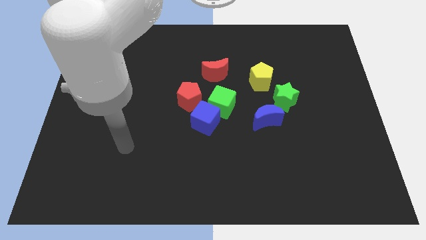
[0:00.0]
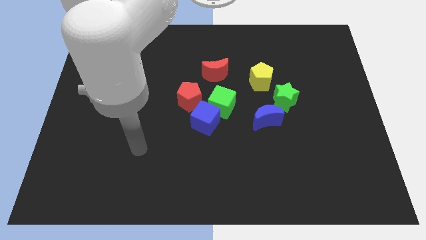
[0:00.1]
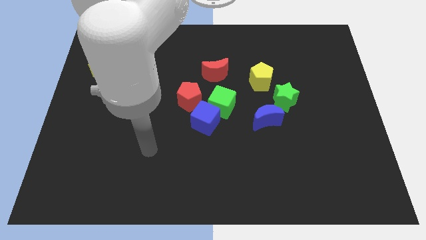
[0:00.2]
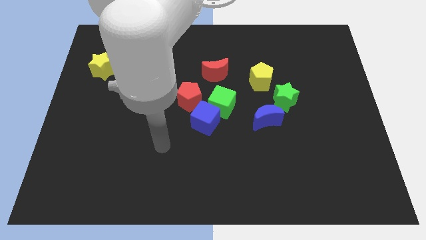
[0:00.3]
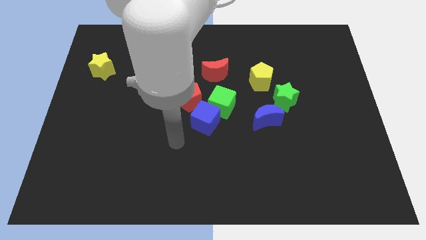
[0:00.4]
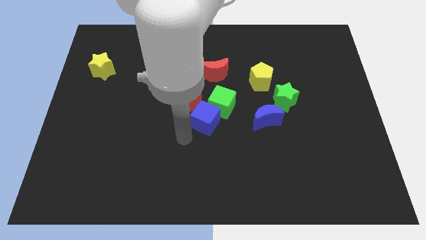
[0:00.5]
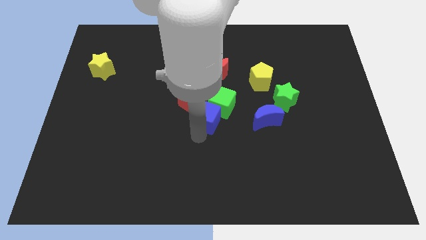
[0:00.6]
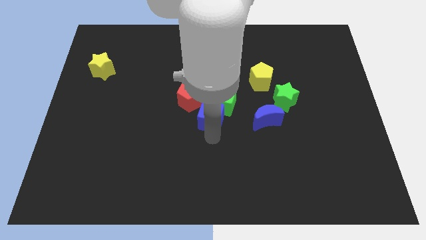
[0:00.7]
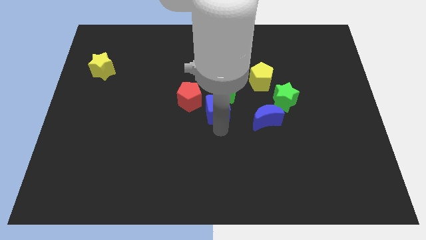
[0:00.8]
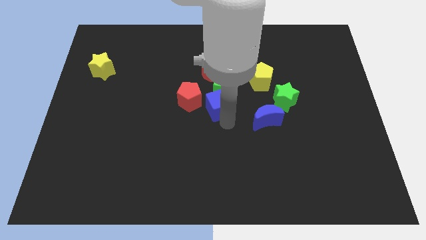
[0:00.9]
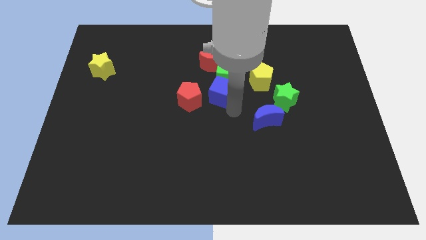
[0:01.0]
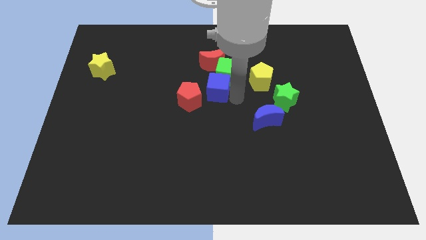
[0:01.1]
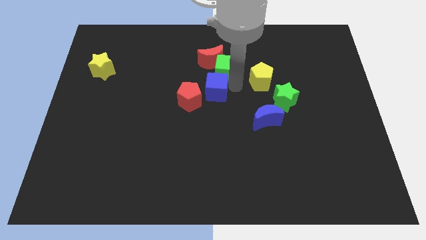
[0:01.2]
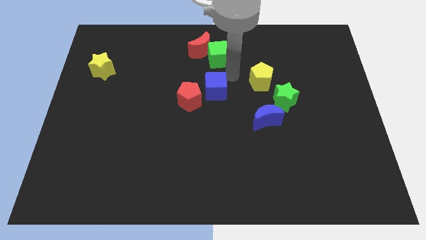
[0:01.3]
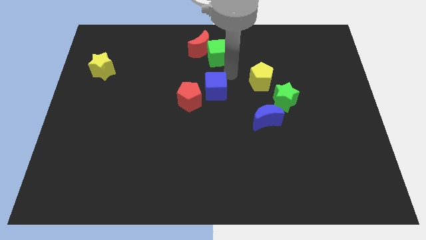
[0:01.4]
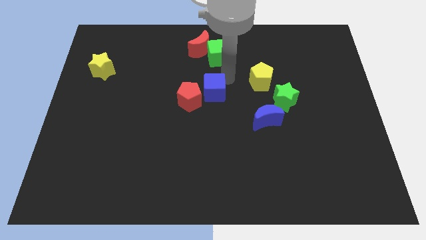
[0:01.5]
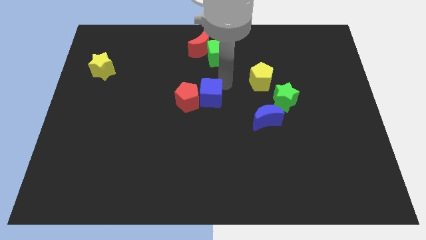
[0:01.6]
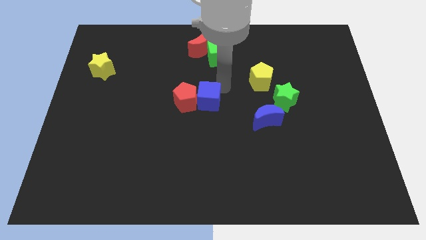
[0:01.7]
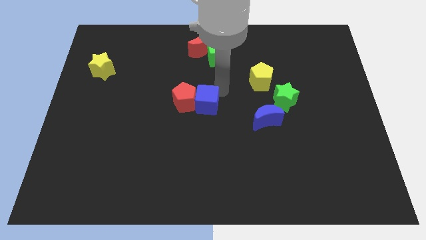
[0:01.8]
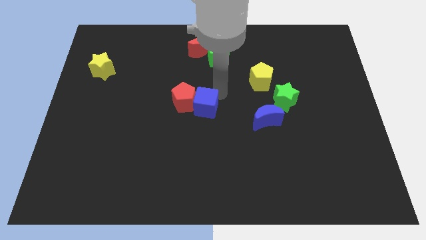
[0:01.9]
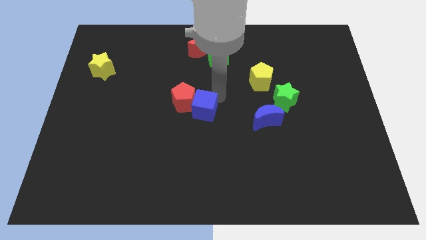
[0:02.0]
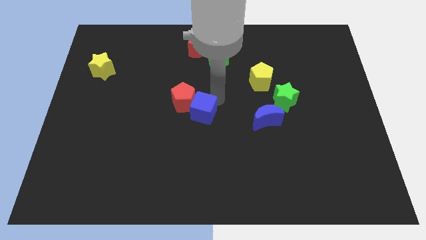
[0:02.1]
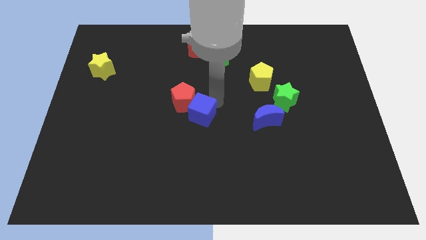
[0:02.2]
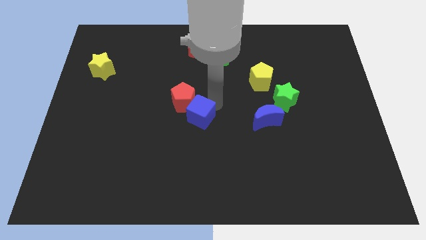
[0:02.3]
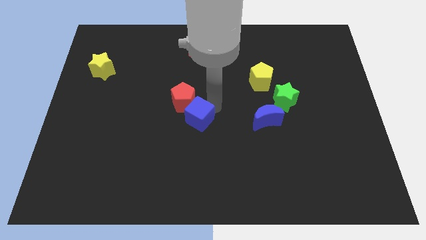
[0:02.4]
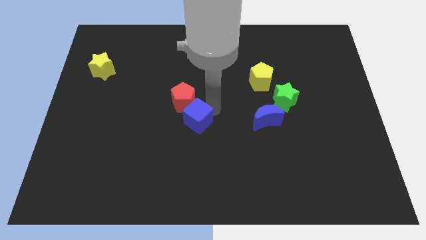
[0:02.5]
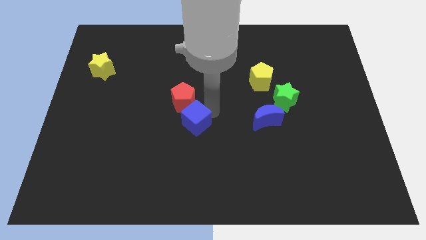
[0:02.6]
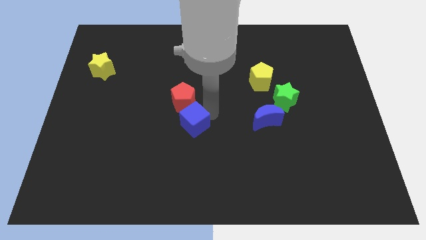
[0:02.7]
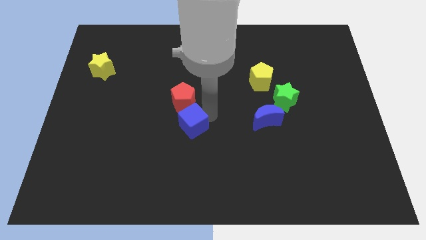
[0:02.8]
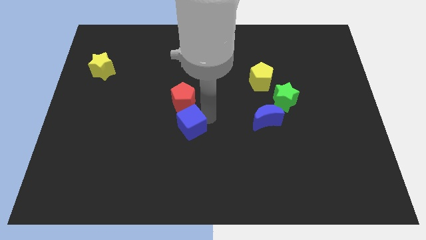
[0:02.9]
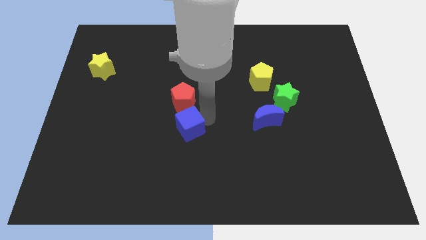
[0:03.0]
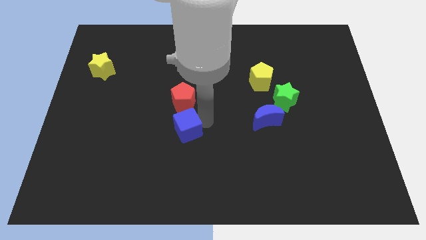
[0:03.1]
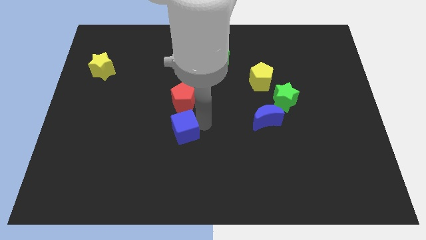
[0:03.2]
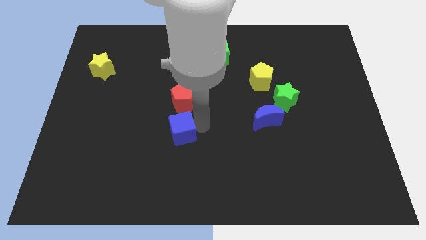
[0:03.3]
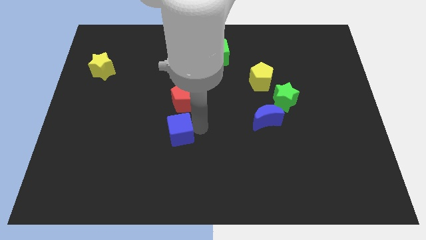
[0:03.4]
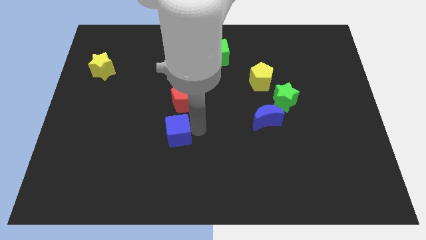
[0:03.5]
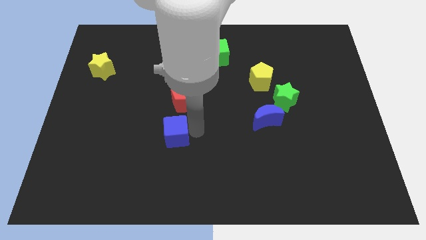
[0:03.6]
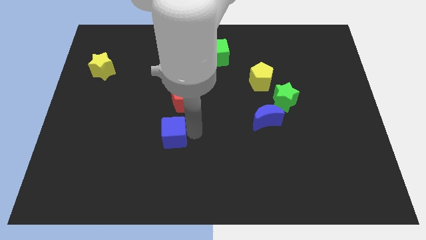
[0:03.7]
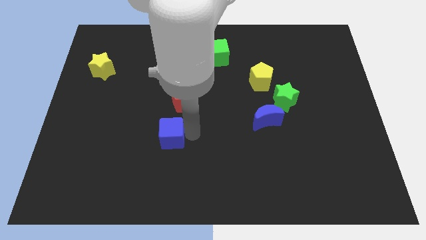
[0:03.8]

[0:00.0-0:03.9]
push the blue cube left a little bit

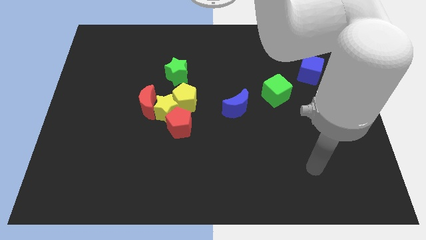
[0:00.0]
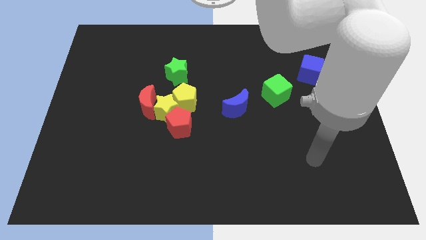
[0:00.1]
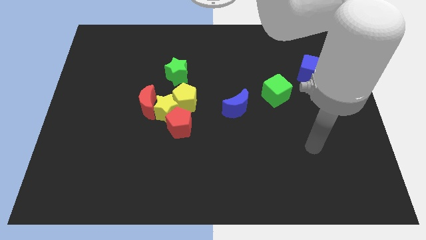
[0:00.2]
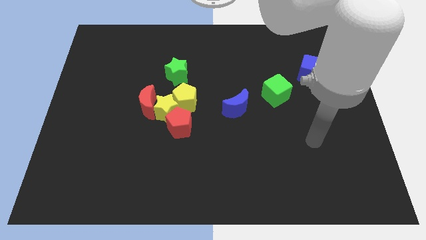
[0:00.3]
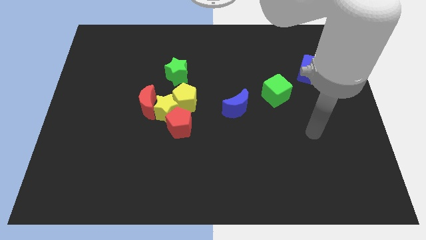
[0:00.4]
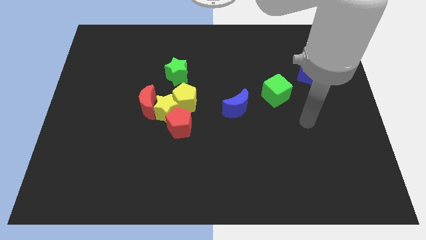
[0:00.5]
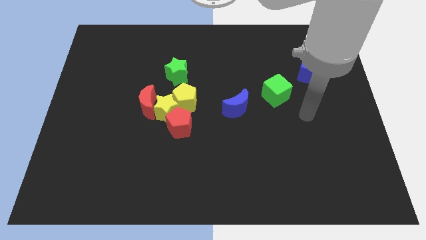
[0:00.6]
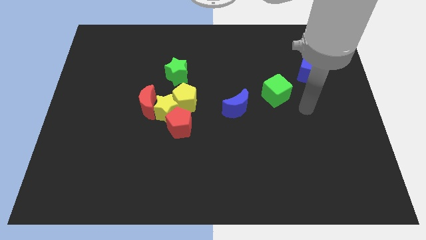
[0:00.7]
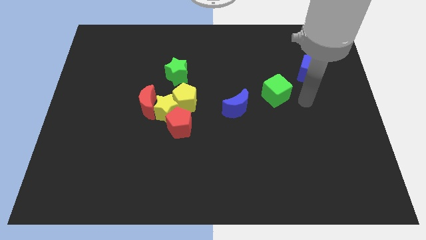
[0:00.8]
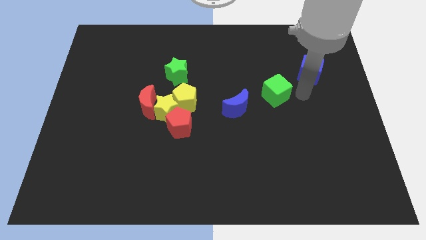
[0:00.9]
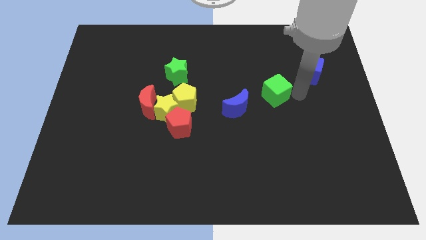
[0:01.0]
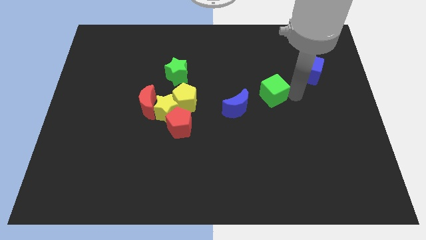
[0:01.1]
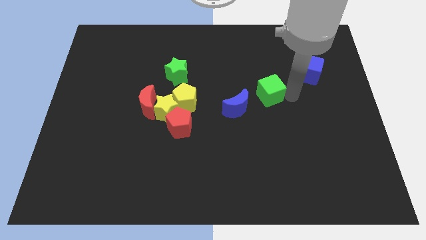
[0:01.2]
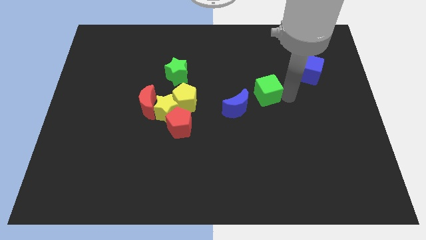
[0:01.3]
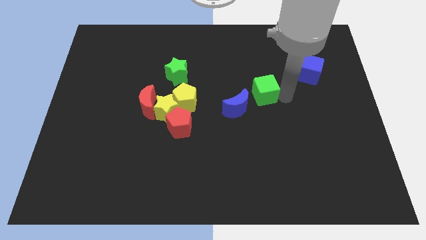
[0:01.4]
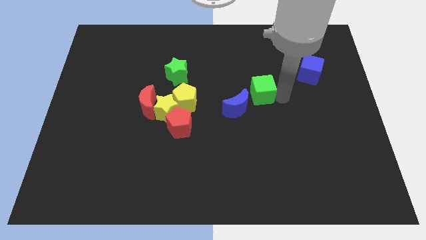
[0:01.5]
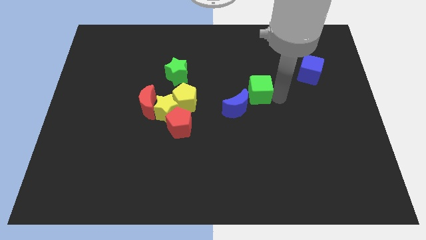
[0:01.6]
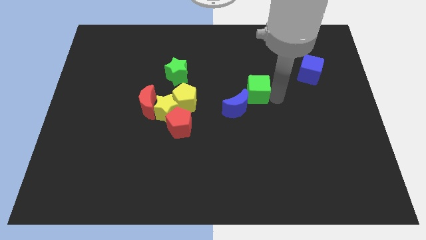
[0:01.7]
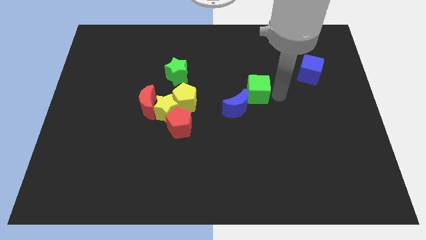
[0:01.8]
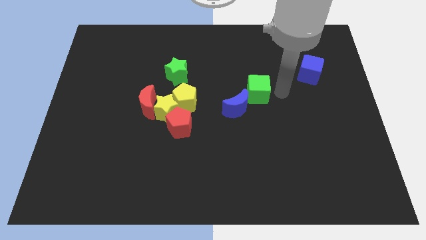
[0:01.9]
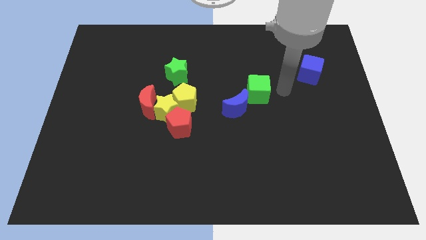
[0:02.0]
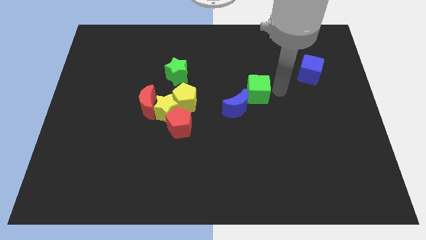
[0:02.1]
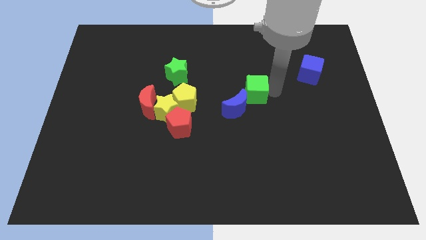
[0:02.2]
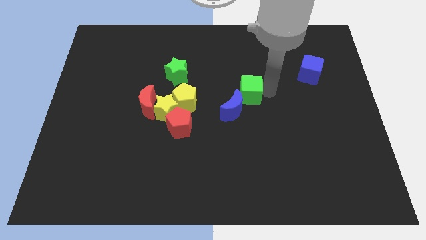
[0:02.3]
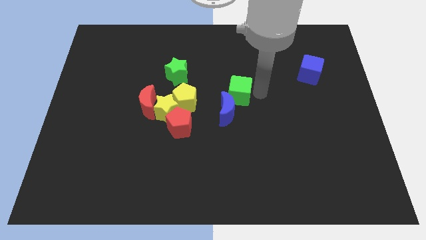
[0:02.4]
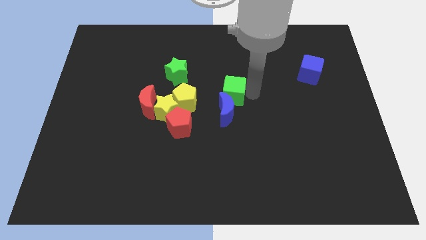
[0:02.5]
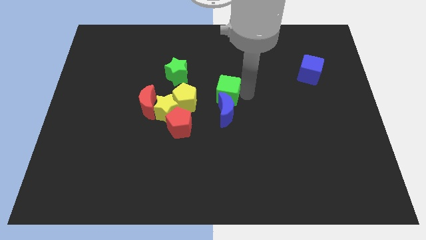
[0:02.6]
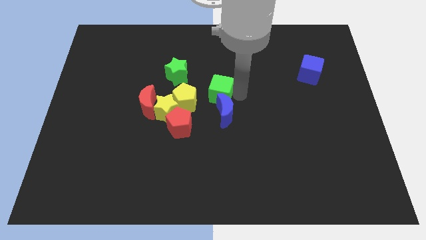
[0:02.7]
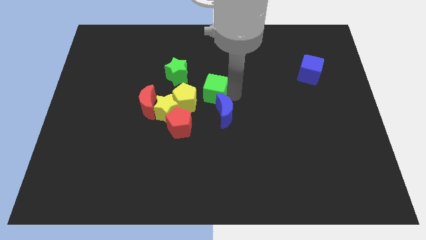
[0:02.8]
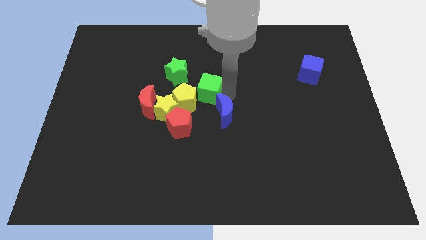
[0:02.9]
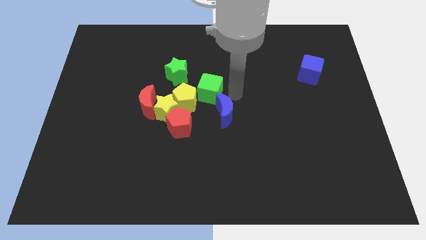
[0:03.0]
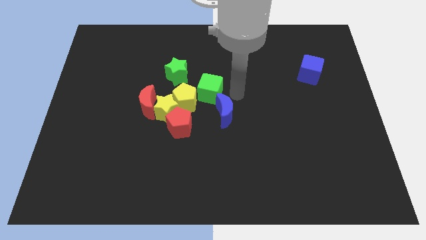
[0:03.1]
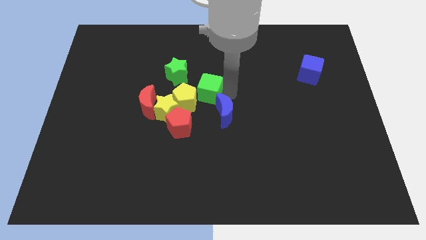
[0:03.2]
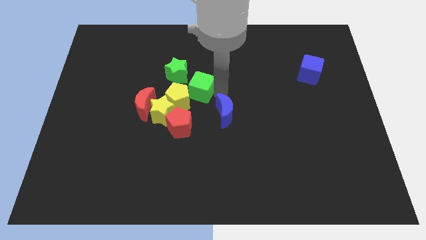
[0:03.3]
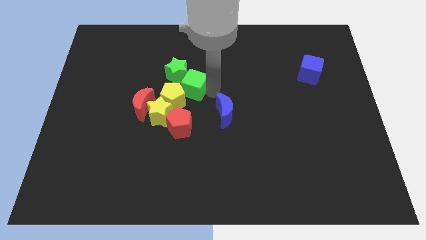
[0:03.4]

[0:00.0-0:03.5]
move the green cube to the left

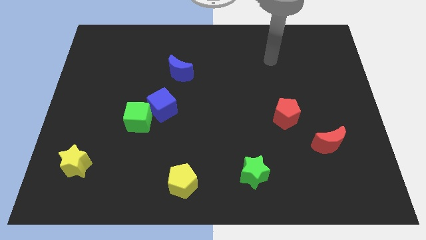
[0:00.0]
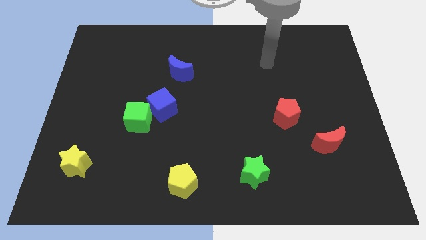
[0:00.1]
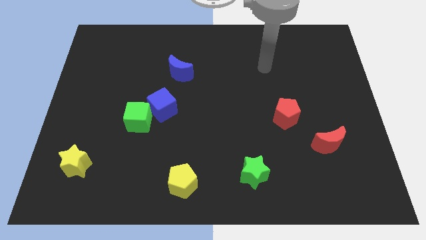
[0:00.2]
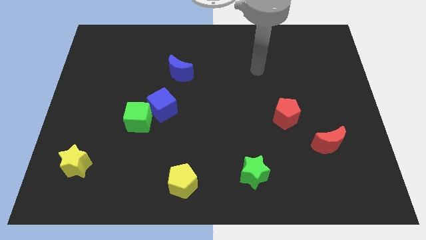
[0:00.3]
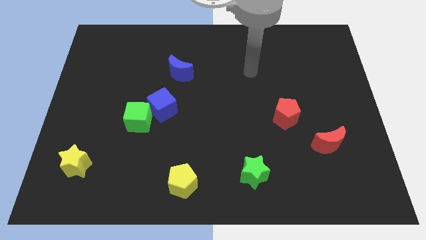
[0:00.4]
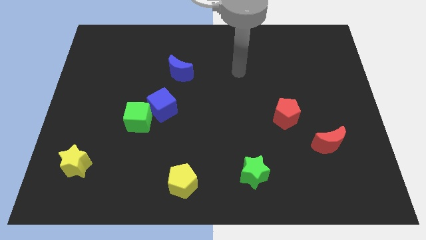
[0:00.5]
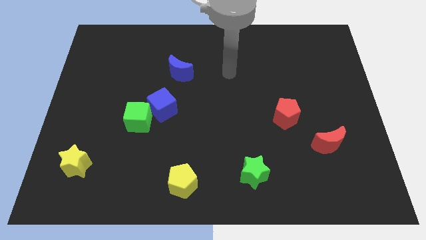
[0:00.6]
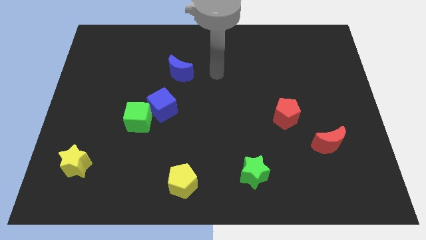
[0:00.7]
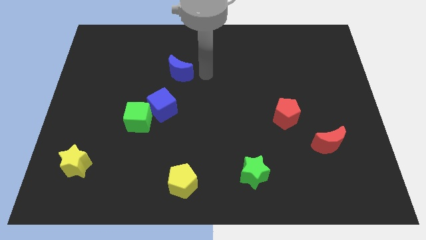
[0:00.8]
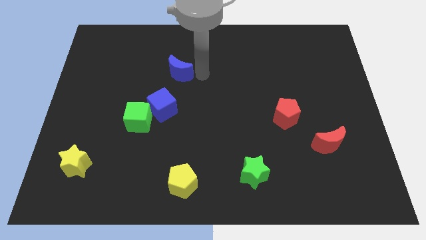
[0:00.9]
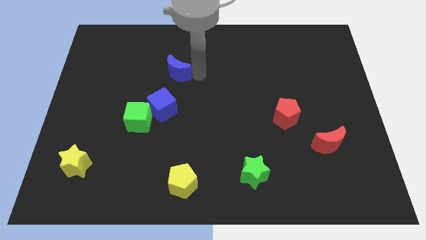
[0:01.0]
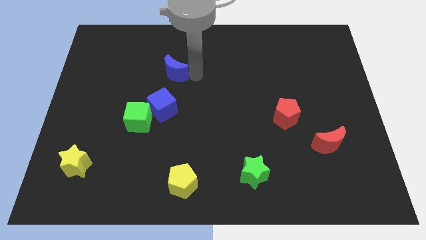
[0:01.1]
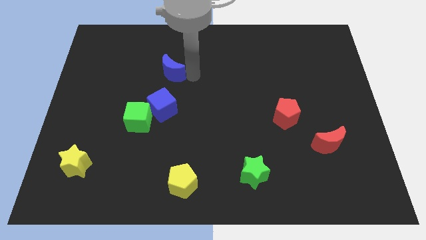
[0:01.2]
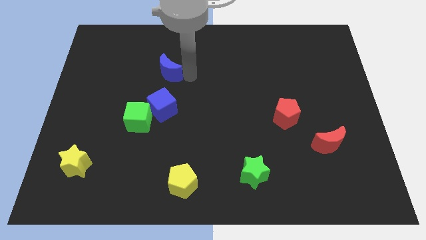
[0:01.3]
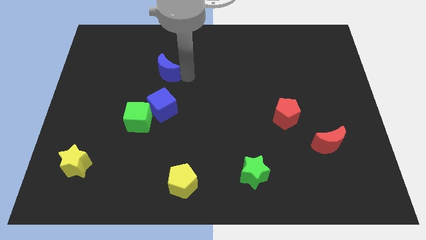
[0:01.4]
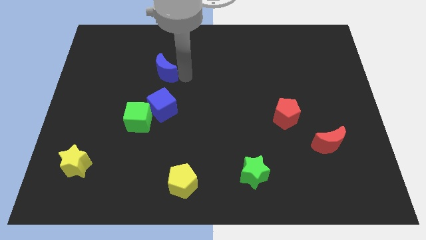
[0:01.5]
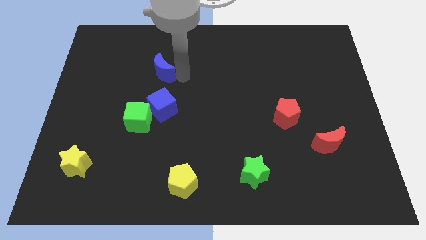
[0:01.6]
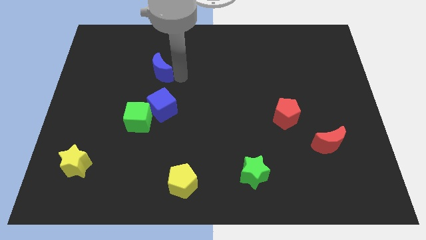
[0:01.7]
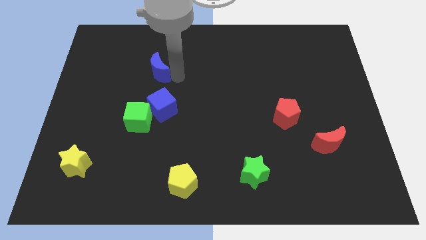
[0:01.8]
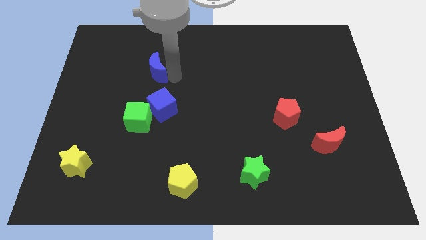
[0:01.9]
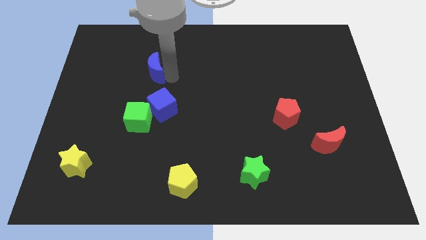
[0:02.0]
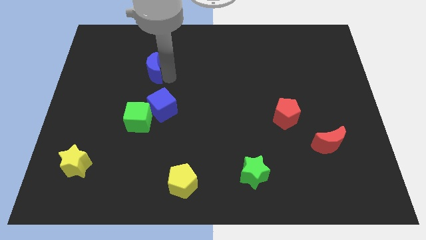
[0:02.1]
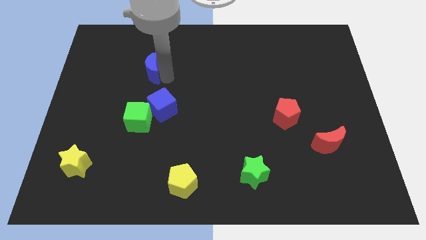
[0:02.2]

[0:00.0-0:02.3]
move the blue moon to the left a bit
